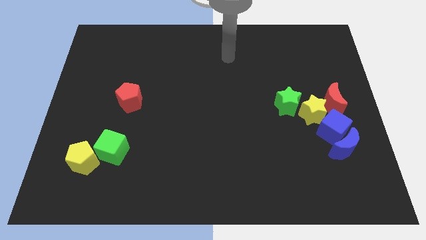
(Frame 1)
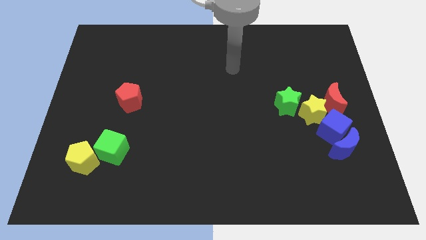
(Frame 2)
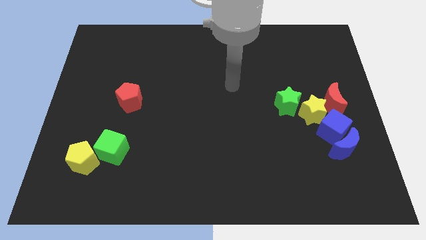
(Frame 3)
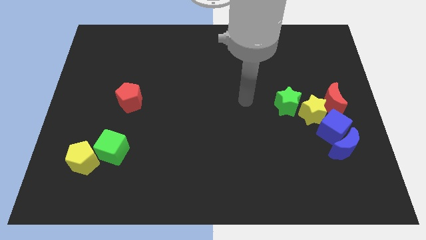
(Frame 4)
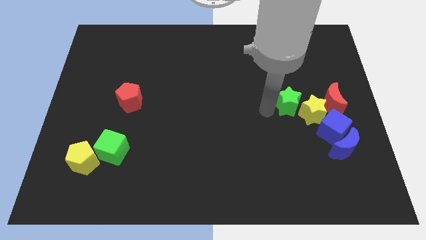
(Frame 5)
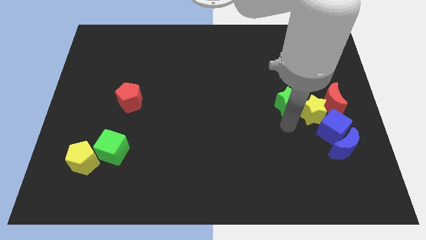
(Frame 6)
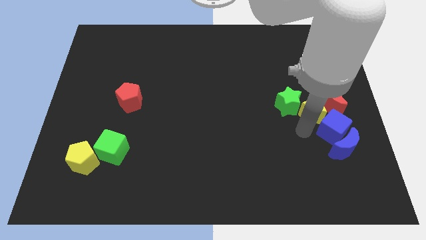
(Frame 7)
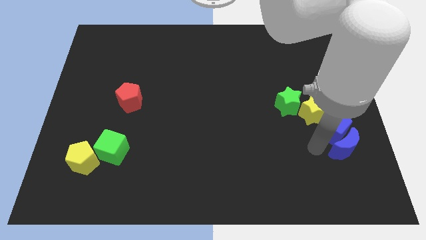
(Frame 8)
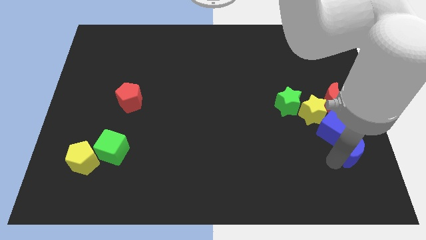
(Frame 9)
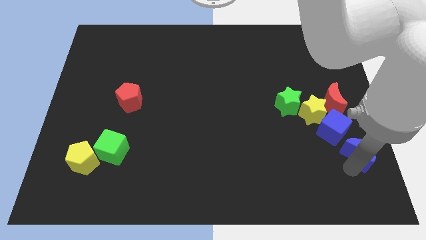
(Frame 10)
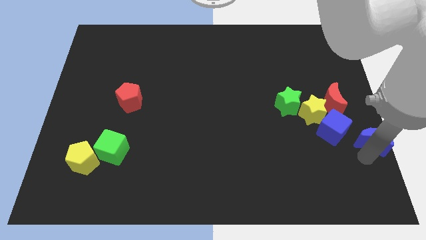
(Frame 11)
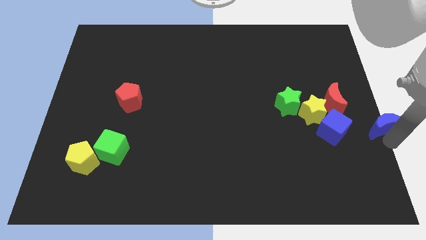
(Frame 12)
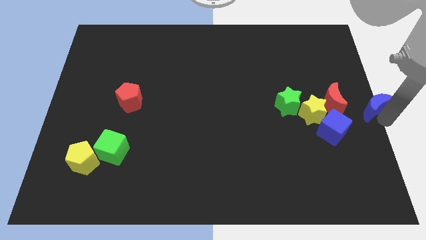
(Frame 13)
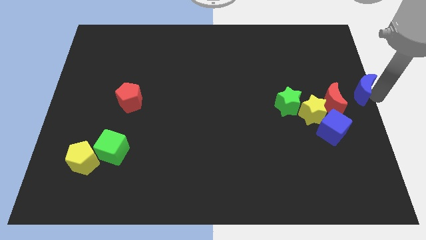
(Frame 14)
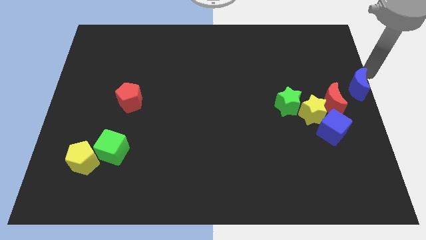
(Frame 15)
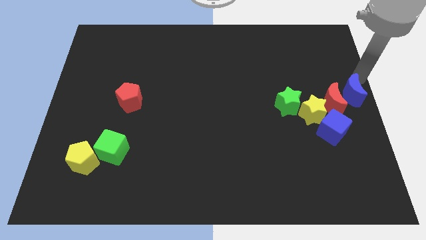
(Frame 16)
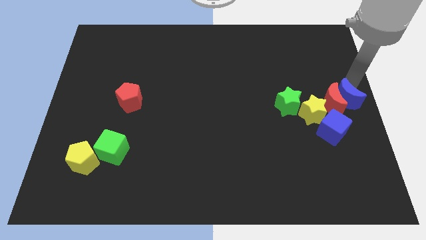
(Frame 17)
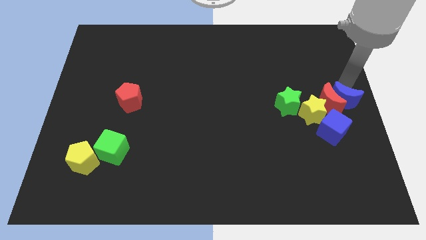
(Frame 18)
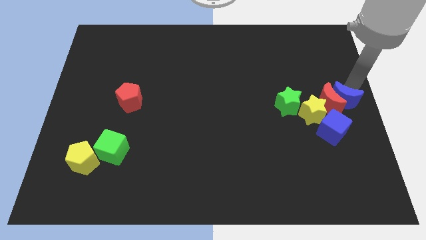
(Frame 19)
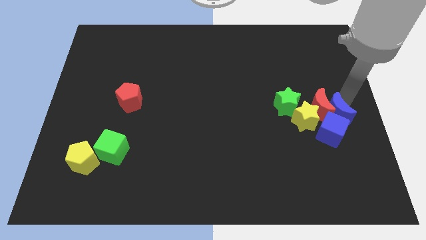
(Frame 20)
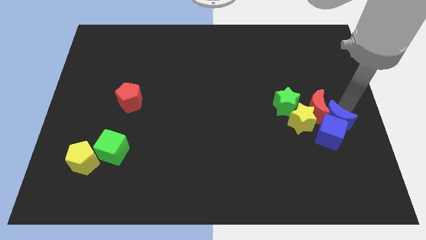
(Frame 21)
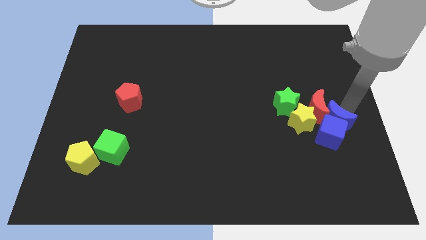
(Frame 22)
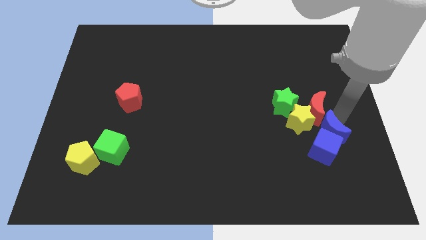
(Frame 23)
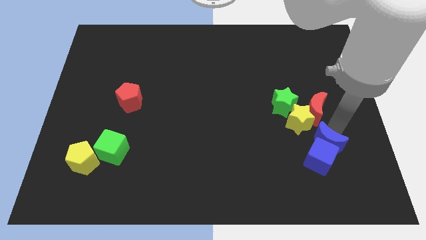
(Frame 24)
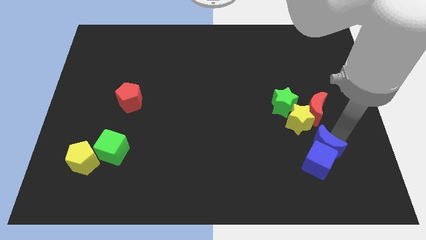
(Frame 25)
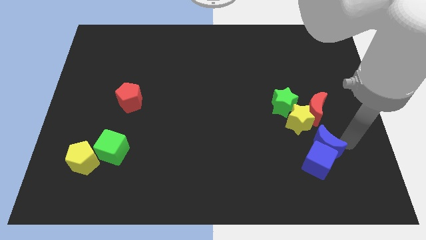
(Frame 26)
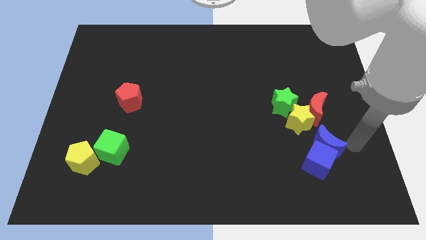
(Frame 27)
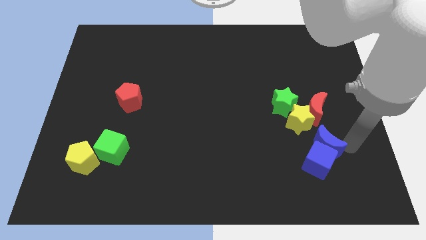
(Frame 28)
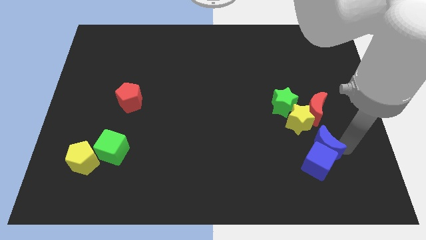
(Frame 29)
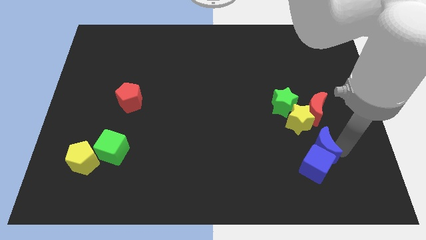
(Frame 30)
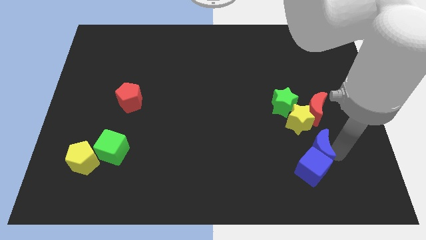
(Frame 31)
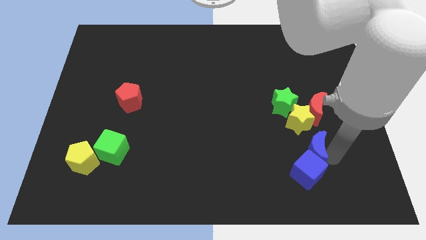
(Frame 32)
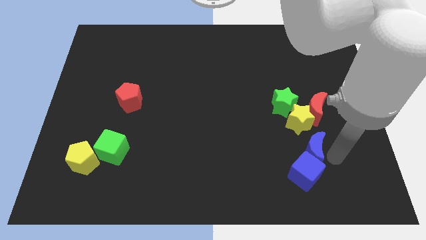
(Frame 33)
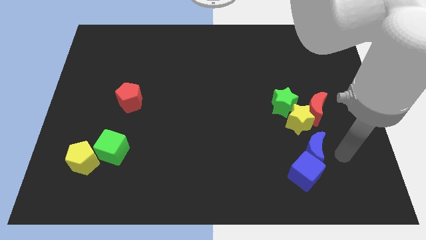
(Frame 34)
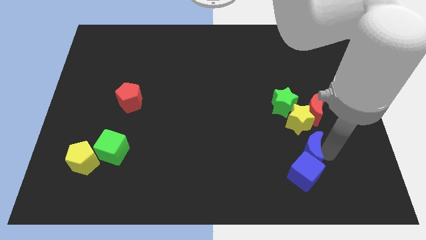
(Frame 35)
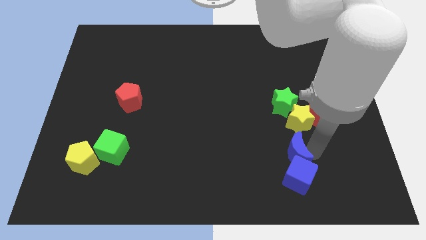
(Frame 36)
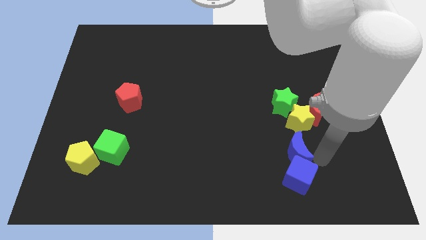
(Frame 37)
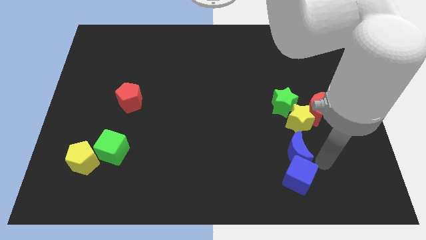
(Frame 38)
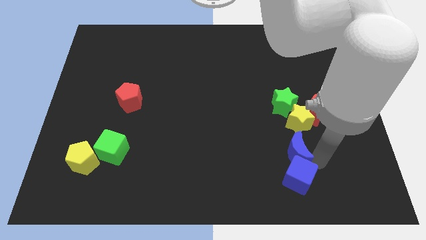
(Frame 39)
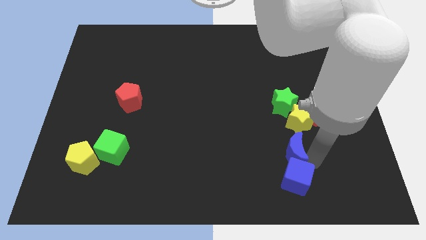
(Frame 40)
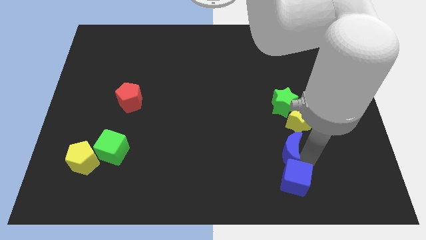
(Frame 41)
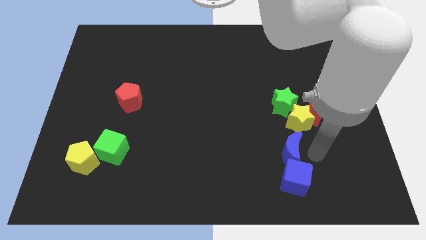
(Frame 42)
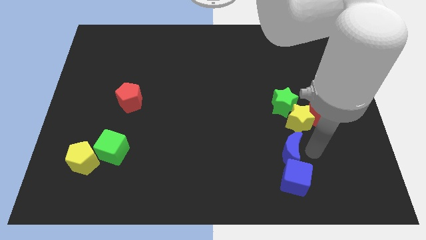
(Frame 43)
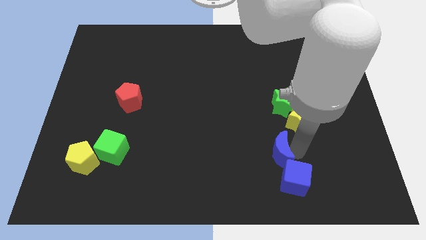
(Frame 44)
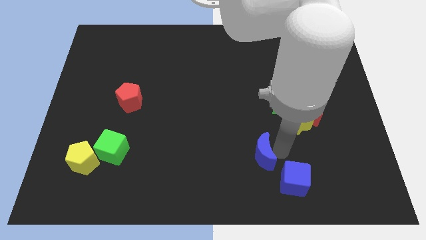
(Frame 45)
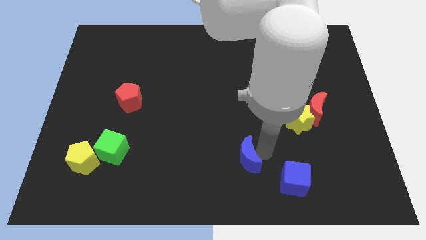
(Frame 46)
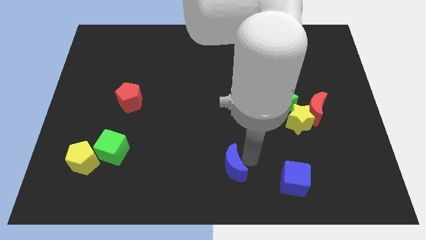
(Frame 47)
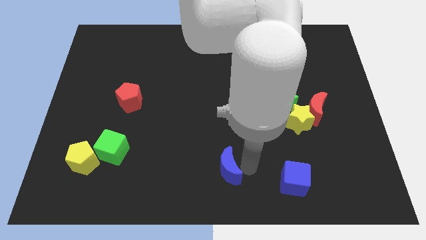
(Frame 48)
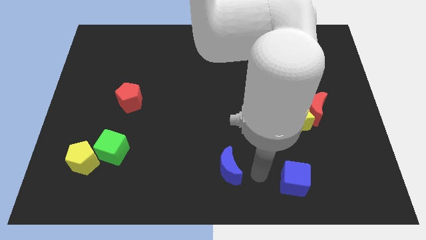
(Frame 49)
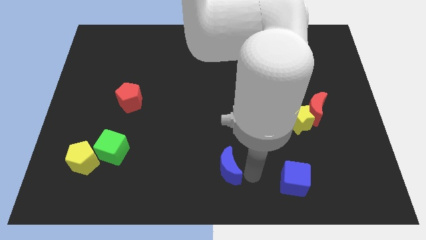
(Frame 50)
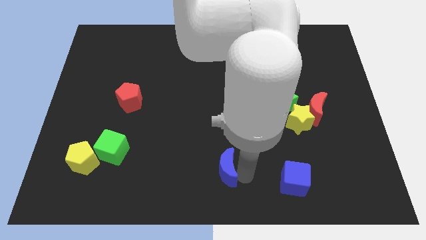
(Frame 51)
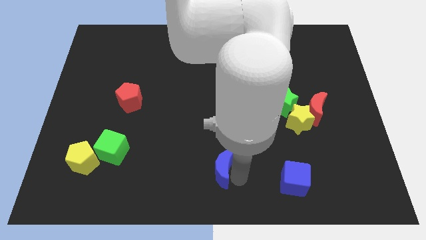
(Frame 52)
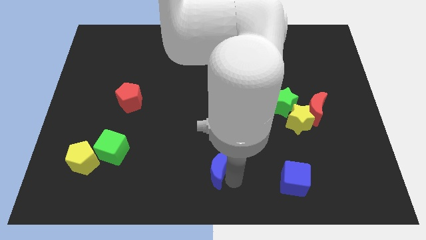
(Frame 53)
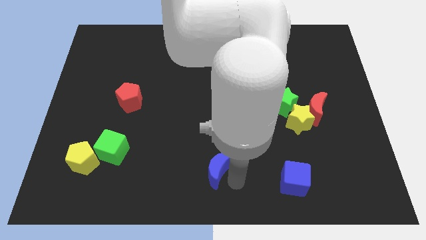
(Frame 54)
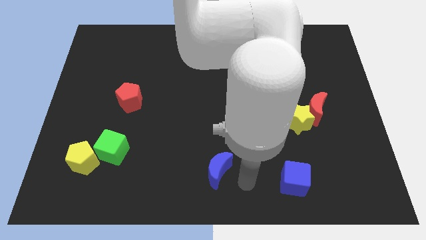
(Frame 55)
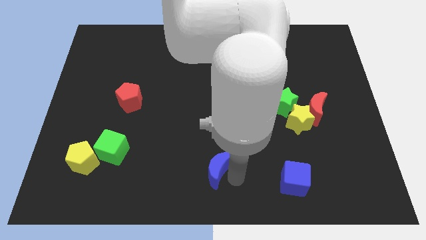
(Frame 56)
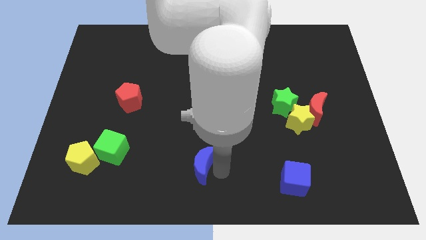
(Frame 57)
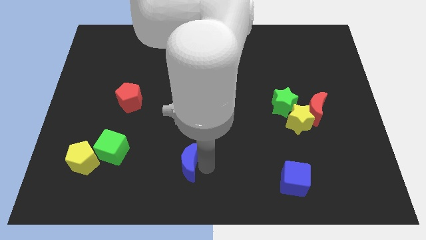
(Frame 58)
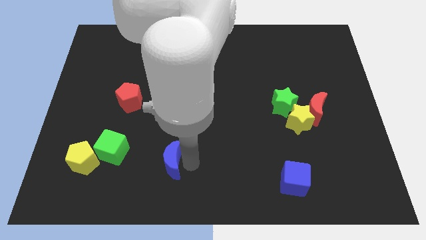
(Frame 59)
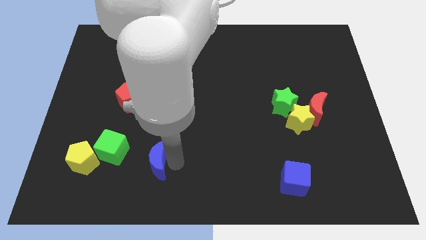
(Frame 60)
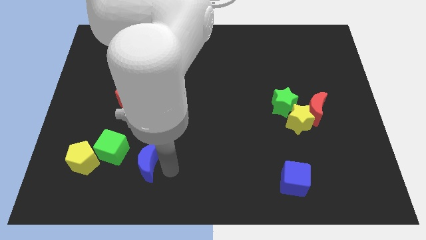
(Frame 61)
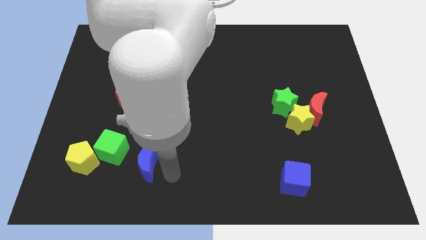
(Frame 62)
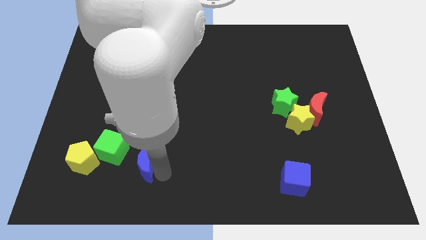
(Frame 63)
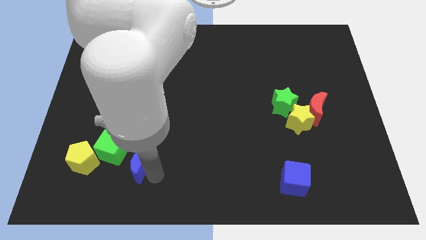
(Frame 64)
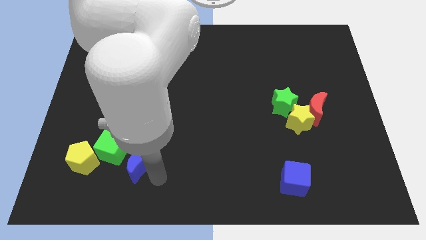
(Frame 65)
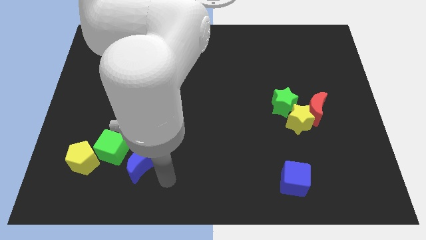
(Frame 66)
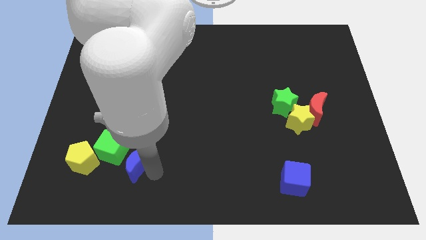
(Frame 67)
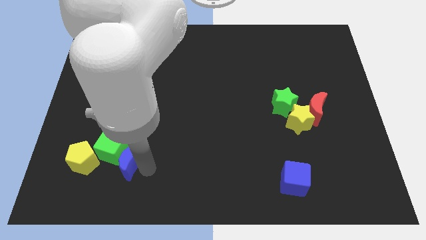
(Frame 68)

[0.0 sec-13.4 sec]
push the blue moon to the green cube

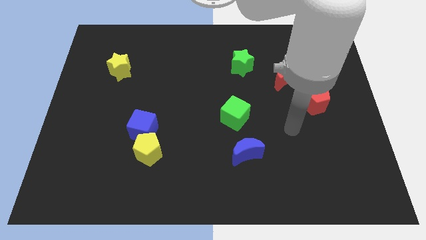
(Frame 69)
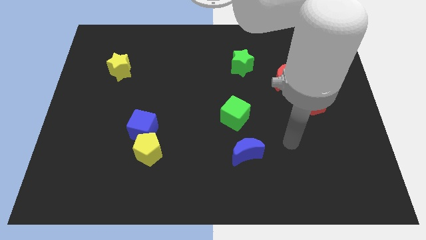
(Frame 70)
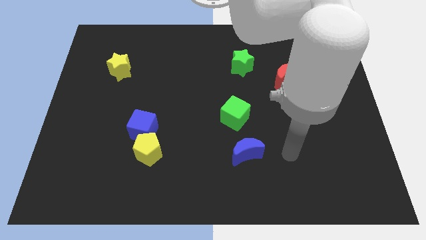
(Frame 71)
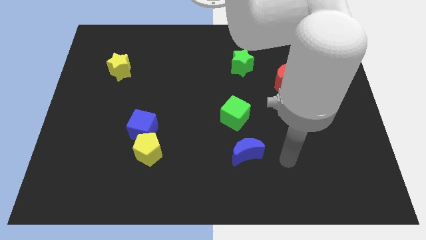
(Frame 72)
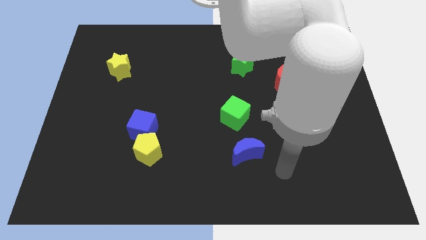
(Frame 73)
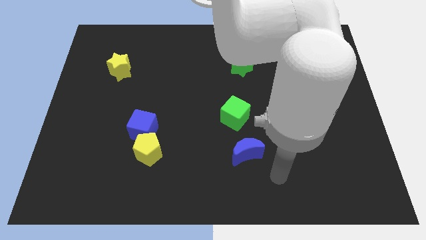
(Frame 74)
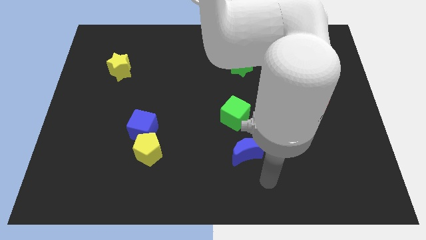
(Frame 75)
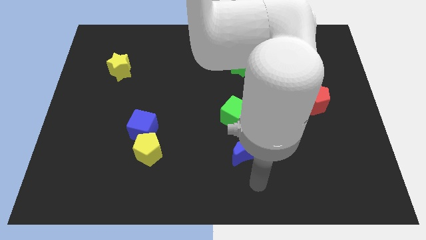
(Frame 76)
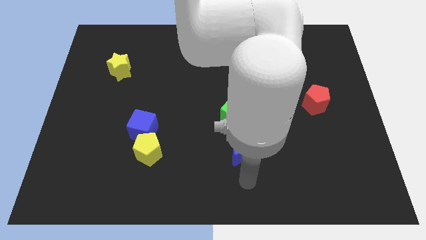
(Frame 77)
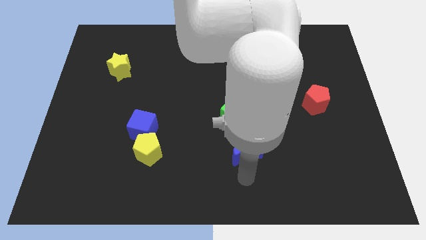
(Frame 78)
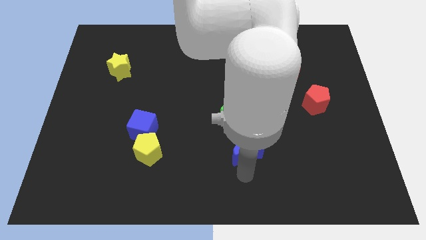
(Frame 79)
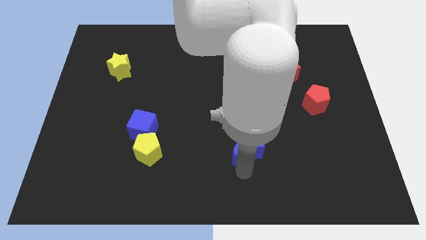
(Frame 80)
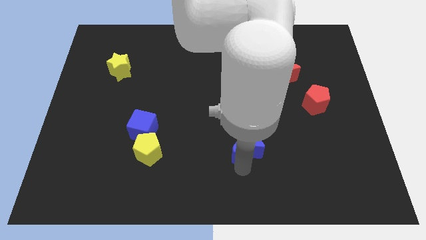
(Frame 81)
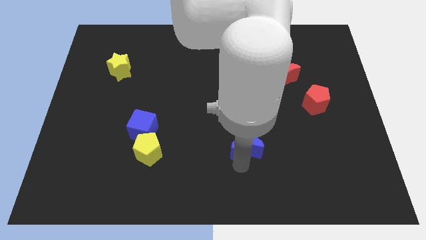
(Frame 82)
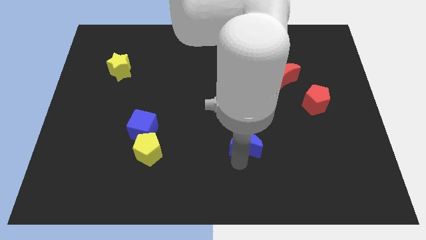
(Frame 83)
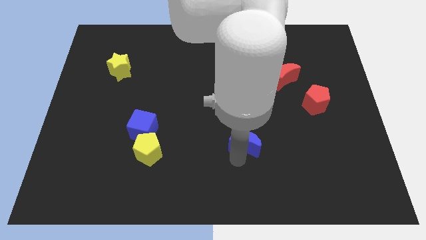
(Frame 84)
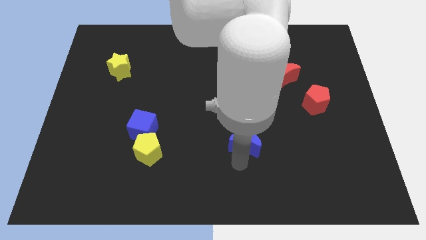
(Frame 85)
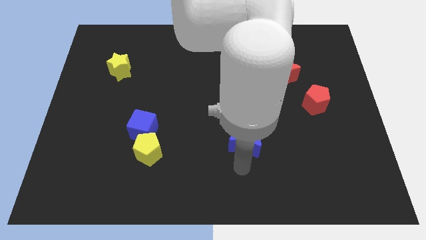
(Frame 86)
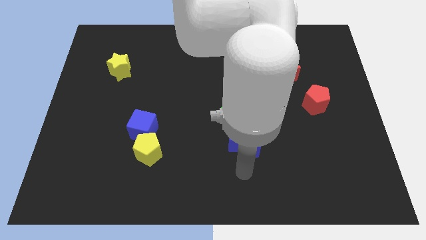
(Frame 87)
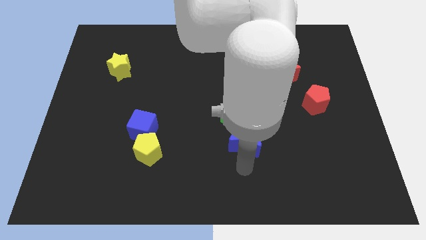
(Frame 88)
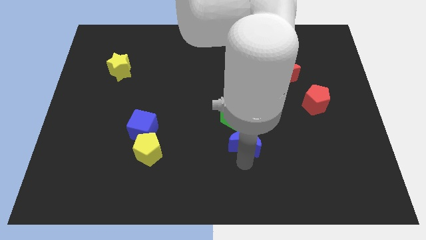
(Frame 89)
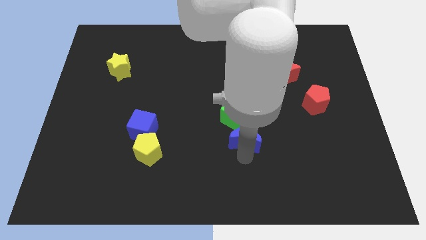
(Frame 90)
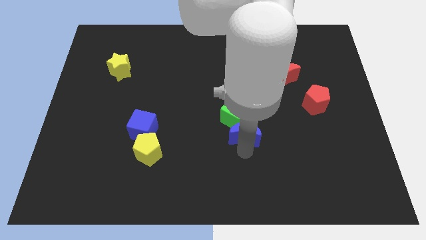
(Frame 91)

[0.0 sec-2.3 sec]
slide the blue moon towards the green cube
